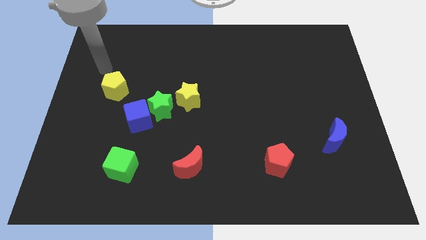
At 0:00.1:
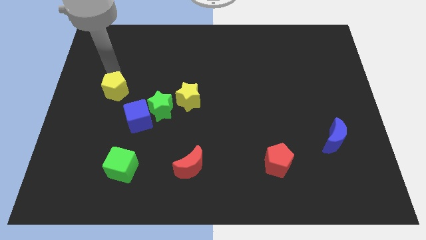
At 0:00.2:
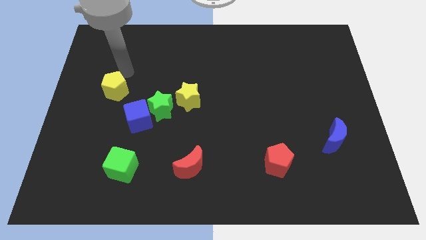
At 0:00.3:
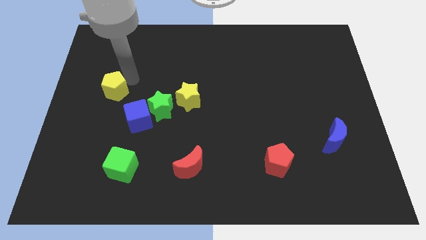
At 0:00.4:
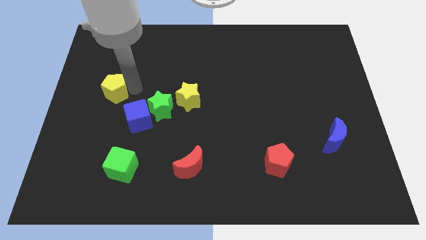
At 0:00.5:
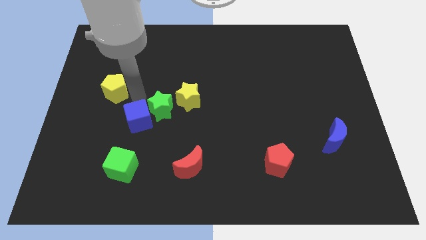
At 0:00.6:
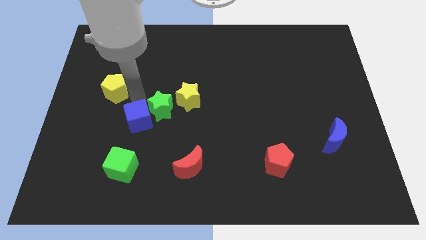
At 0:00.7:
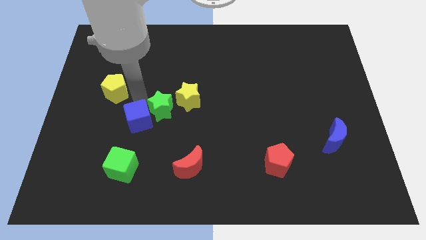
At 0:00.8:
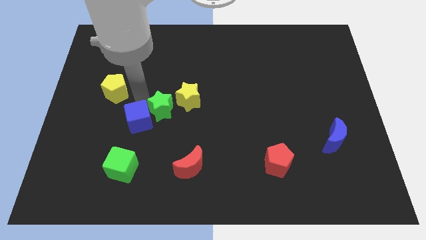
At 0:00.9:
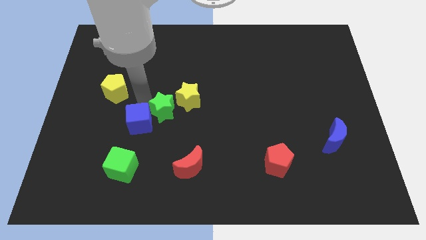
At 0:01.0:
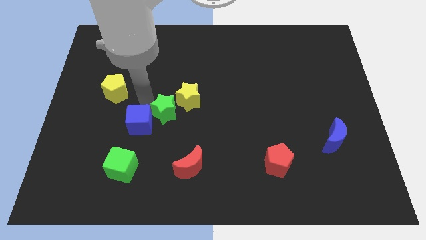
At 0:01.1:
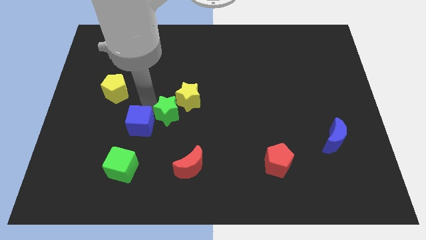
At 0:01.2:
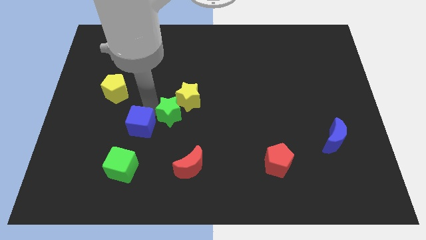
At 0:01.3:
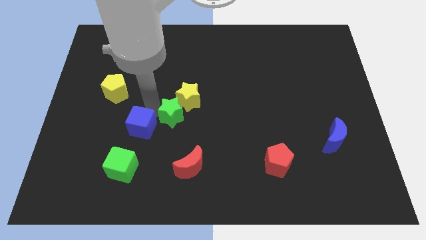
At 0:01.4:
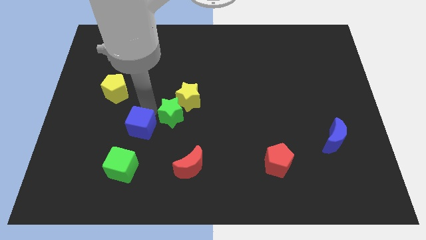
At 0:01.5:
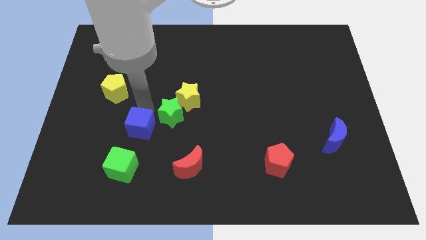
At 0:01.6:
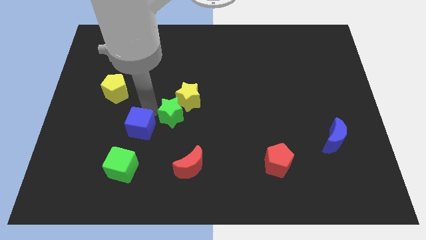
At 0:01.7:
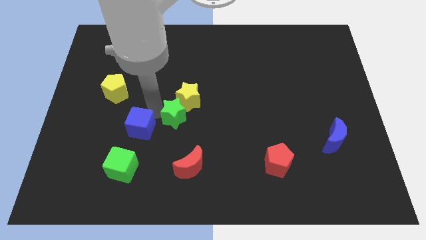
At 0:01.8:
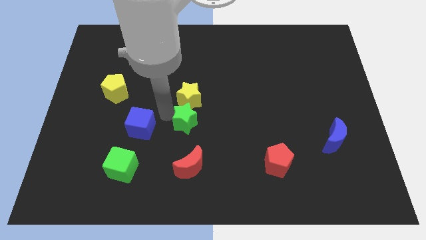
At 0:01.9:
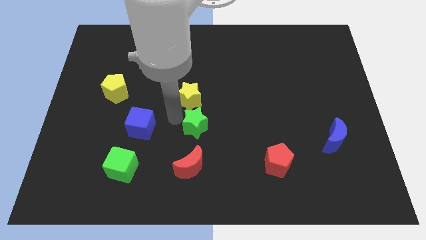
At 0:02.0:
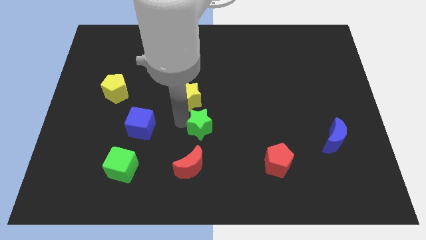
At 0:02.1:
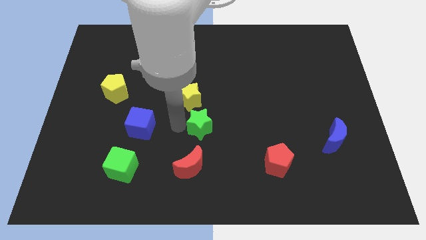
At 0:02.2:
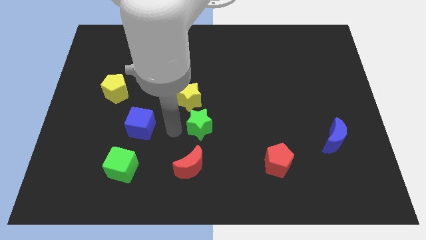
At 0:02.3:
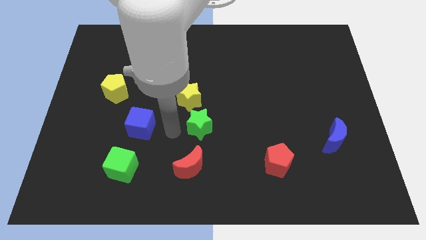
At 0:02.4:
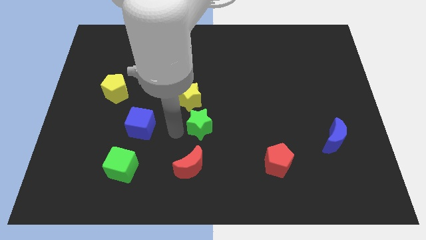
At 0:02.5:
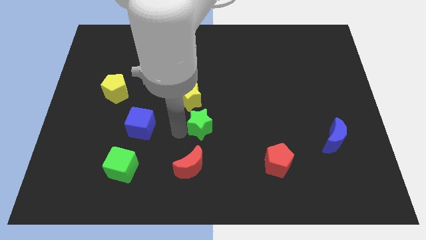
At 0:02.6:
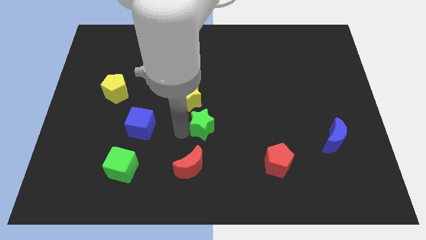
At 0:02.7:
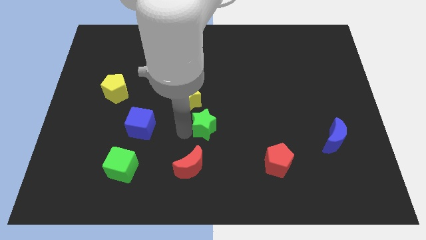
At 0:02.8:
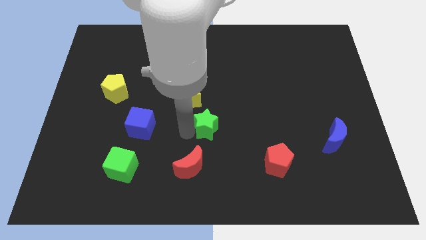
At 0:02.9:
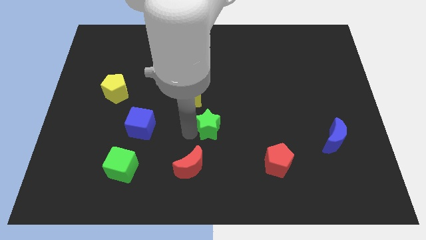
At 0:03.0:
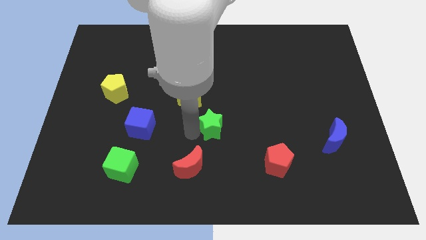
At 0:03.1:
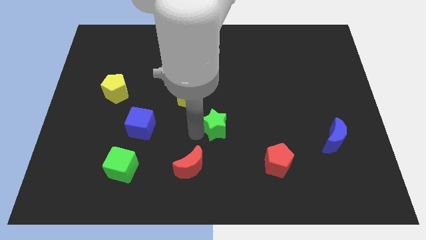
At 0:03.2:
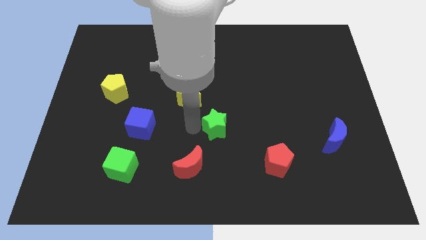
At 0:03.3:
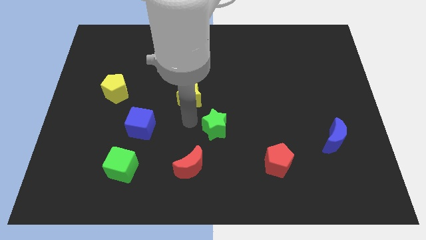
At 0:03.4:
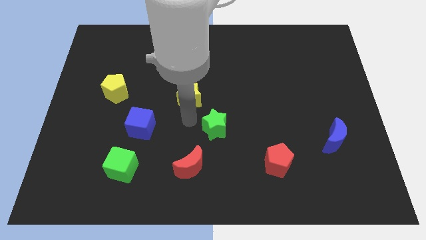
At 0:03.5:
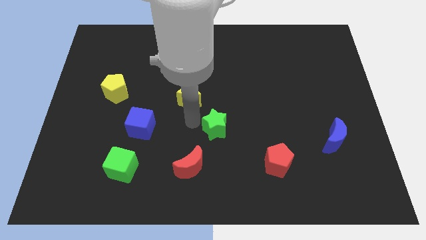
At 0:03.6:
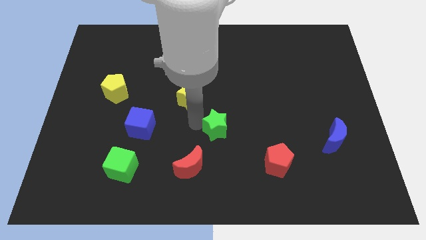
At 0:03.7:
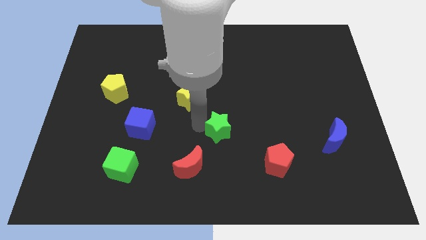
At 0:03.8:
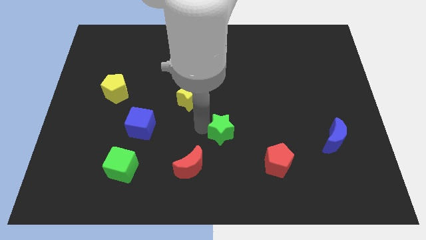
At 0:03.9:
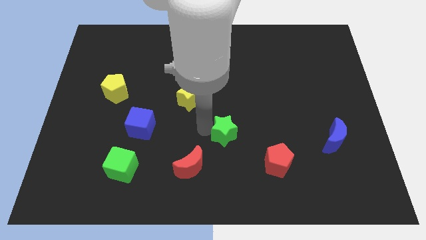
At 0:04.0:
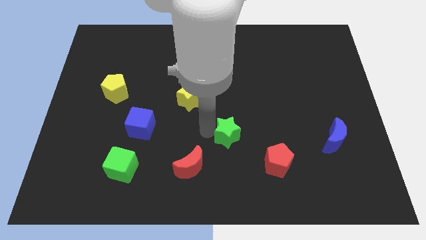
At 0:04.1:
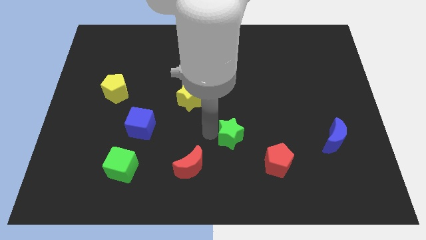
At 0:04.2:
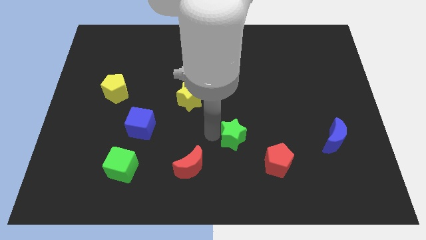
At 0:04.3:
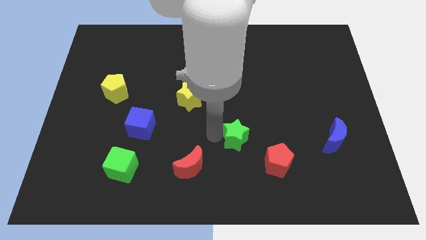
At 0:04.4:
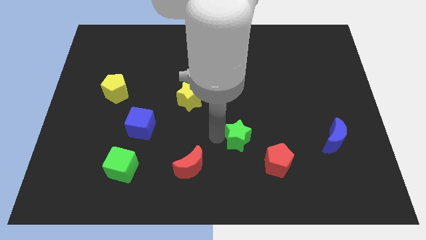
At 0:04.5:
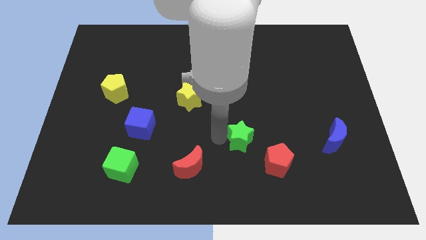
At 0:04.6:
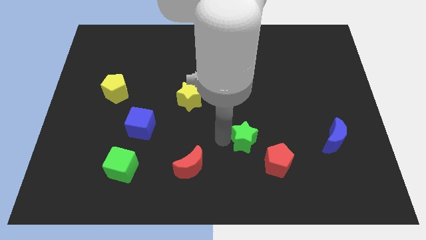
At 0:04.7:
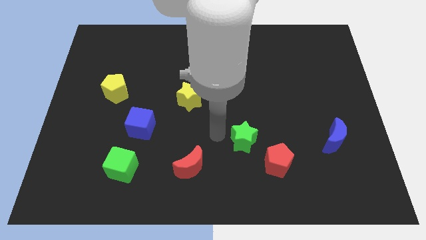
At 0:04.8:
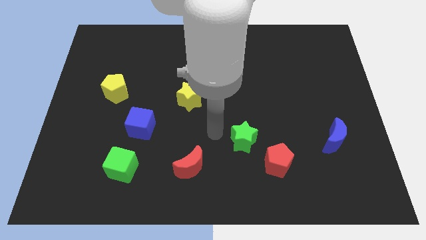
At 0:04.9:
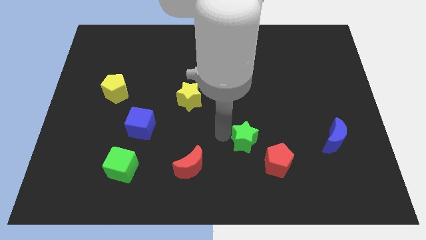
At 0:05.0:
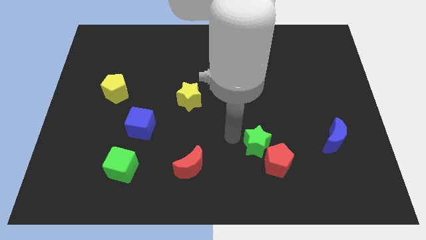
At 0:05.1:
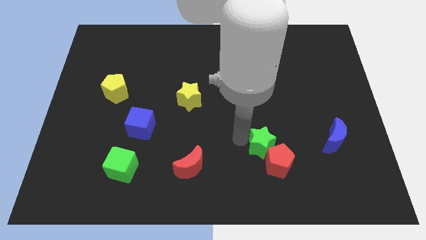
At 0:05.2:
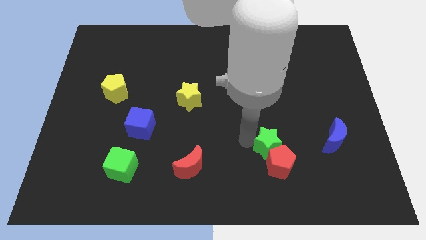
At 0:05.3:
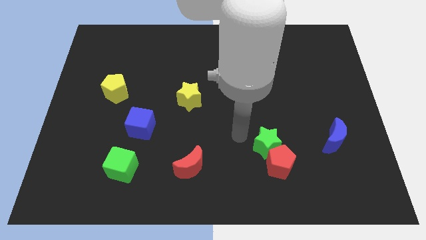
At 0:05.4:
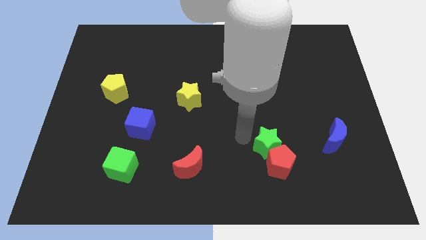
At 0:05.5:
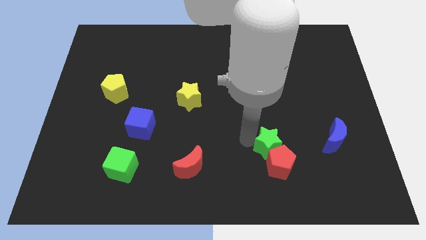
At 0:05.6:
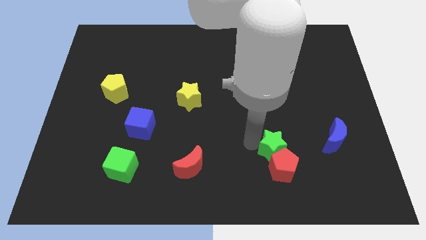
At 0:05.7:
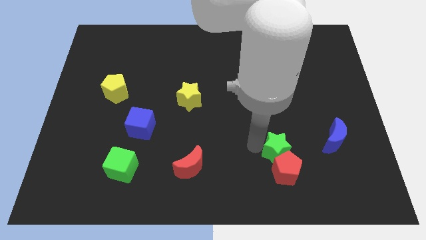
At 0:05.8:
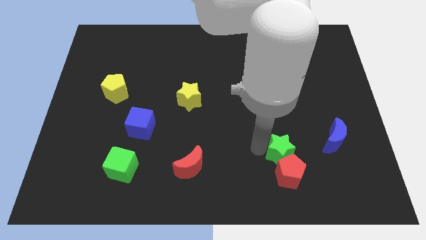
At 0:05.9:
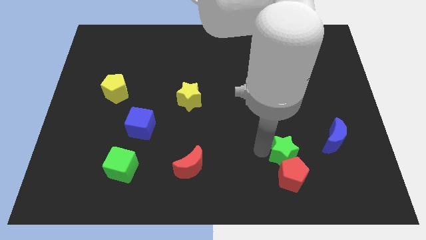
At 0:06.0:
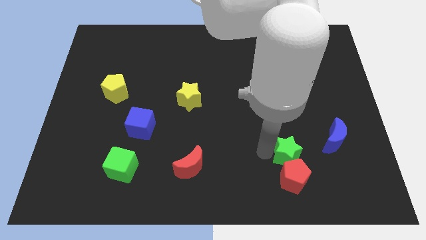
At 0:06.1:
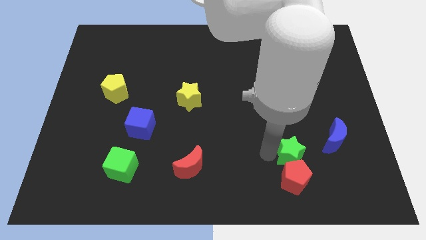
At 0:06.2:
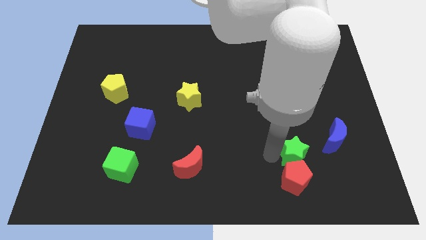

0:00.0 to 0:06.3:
push the green star to the bottom left side of the blue moon

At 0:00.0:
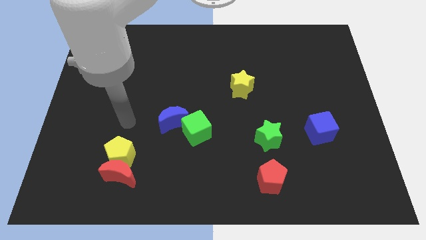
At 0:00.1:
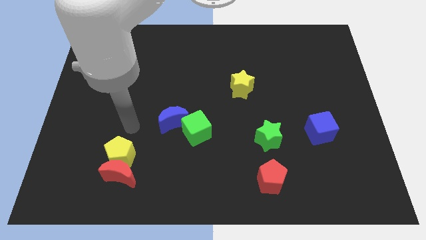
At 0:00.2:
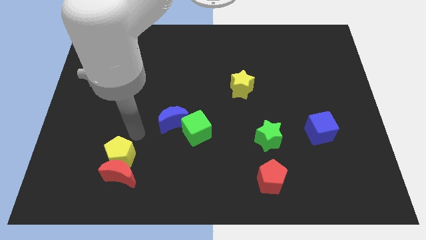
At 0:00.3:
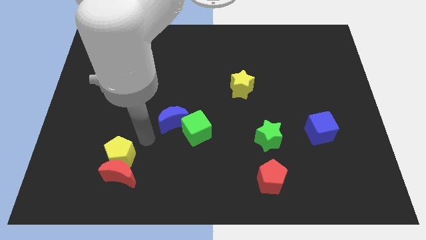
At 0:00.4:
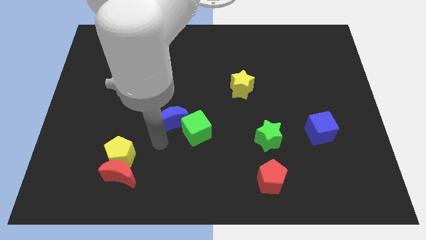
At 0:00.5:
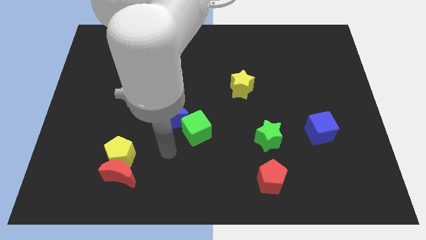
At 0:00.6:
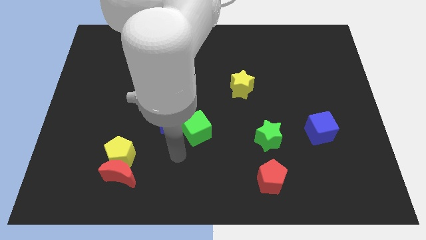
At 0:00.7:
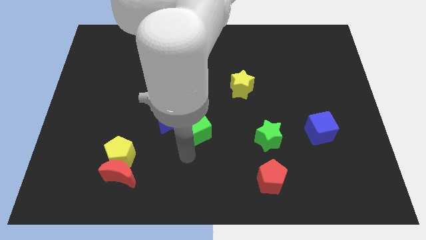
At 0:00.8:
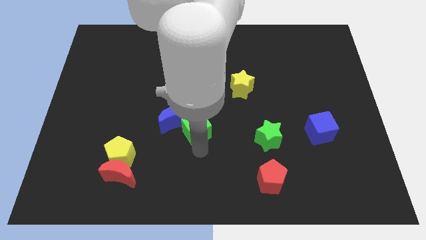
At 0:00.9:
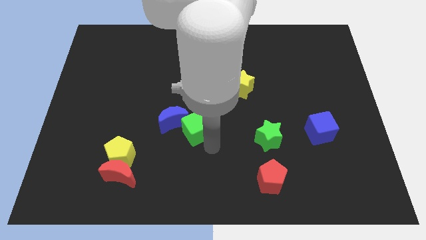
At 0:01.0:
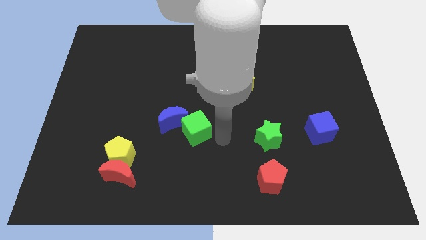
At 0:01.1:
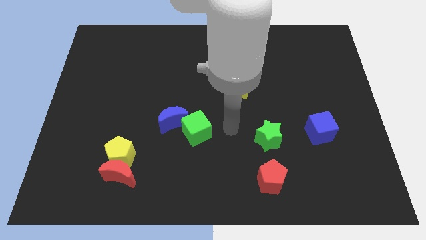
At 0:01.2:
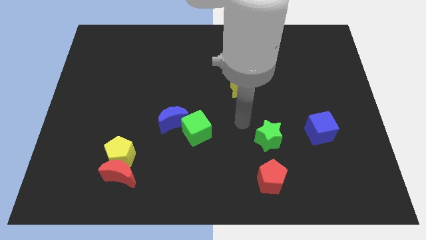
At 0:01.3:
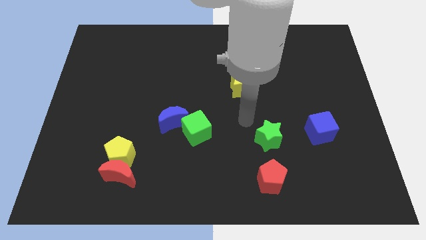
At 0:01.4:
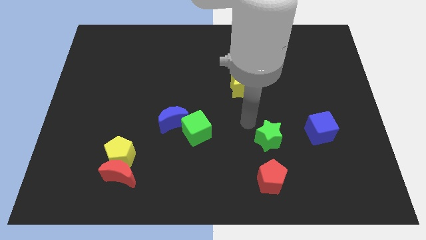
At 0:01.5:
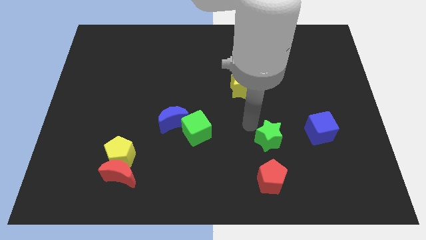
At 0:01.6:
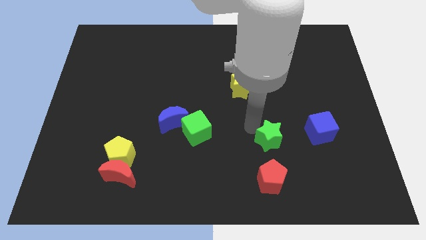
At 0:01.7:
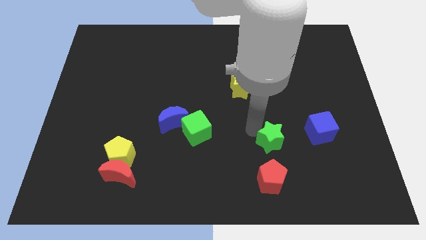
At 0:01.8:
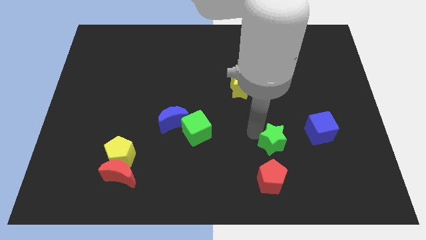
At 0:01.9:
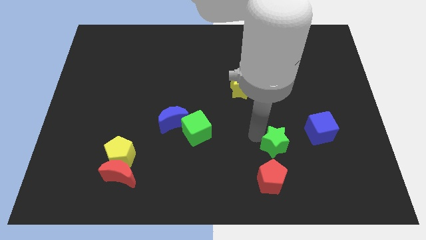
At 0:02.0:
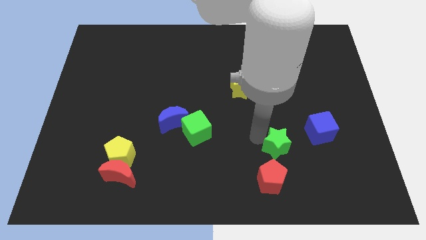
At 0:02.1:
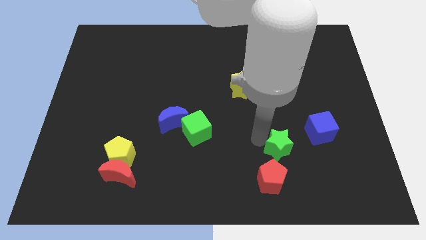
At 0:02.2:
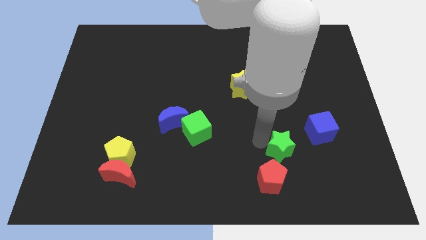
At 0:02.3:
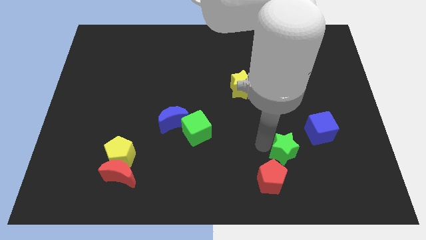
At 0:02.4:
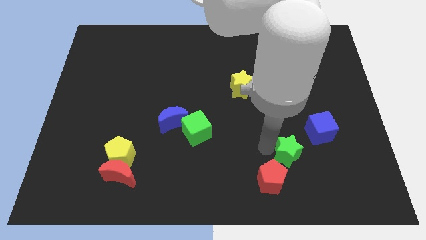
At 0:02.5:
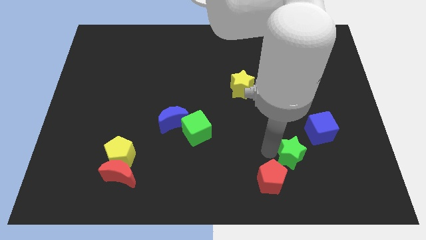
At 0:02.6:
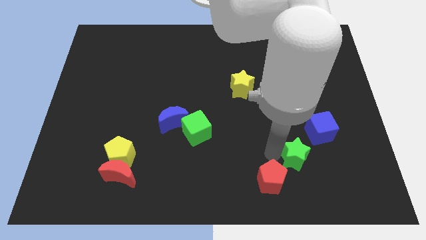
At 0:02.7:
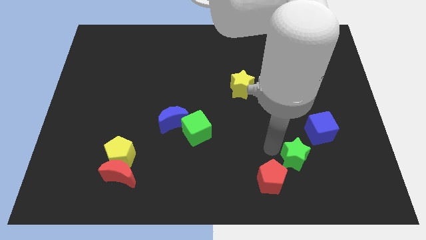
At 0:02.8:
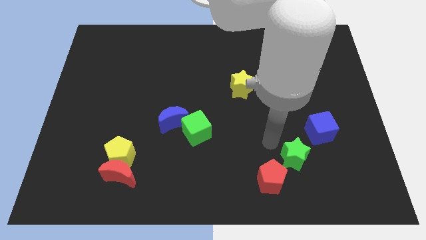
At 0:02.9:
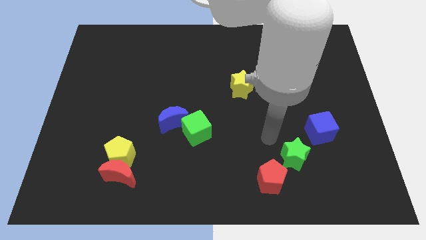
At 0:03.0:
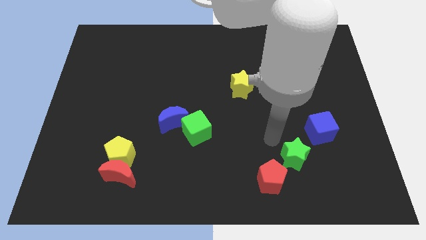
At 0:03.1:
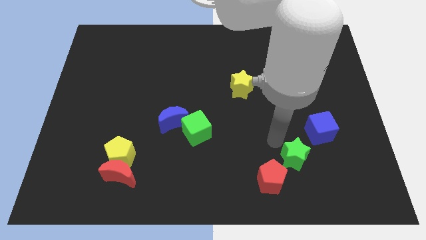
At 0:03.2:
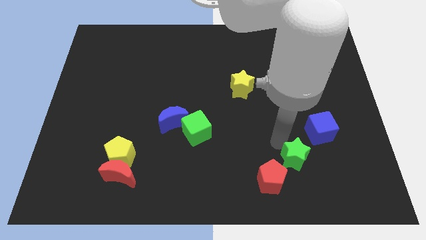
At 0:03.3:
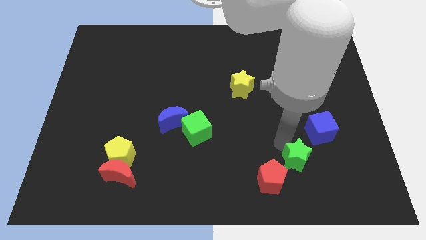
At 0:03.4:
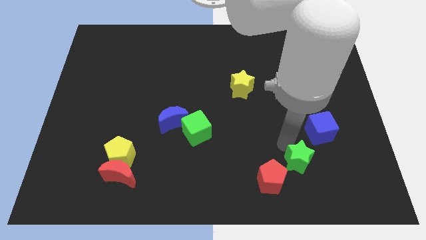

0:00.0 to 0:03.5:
slide the green star to the right side of the red pentagon
